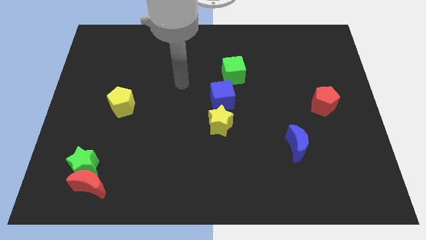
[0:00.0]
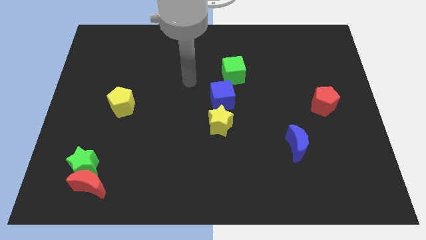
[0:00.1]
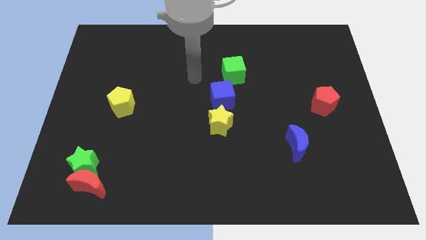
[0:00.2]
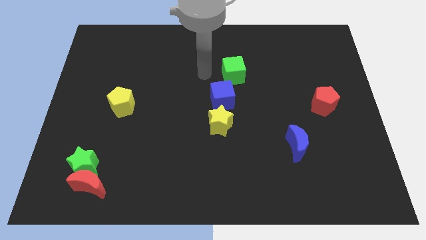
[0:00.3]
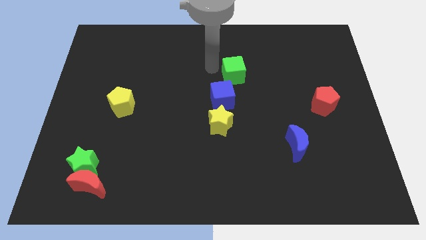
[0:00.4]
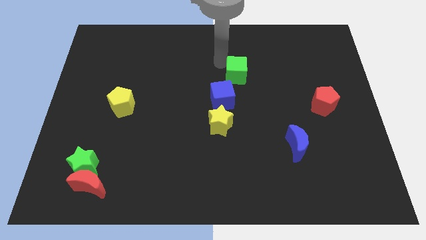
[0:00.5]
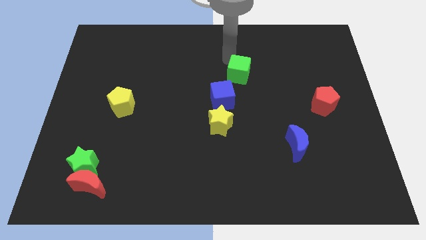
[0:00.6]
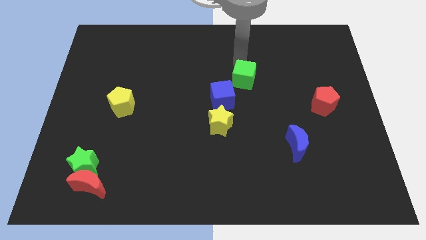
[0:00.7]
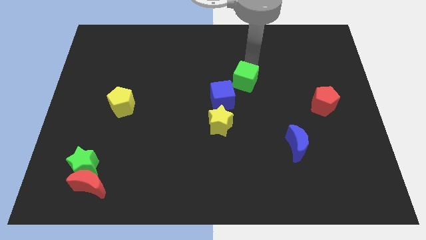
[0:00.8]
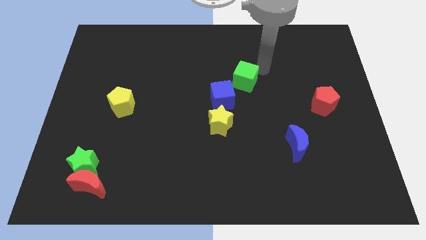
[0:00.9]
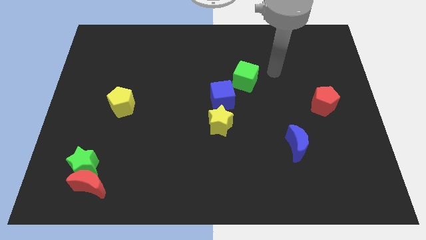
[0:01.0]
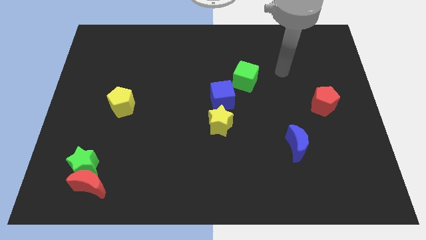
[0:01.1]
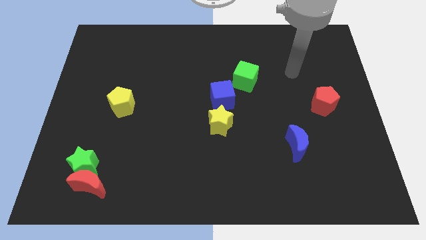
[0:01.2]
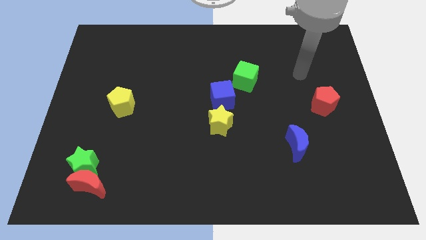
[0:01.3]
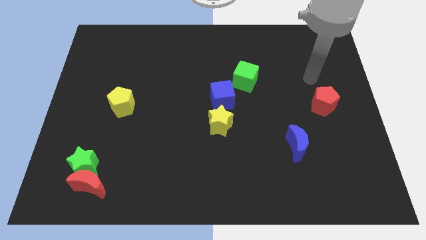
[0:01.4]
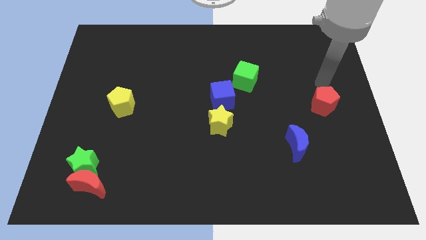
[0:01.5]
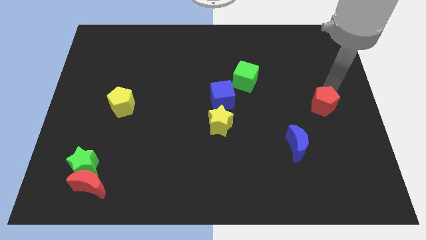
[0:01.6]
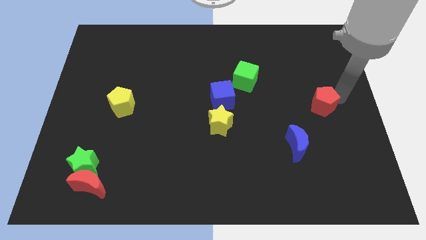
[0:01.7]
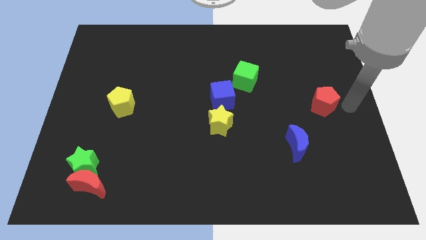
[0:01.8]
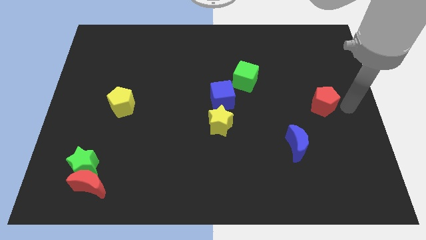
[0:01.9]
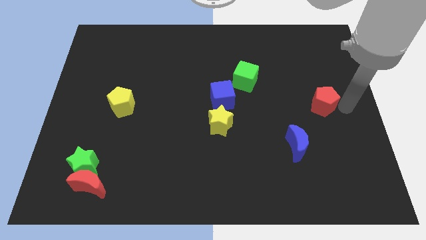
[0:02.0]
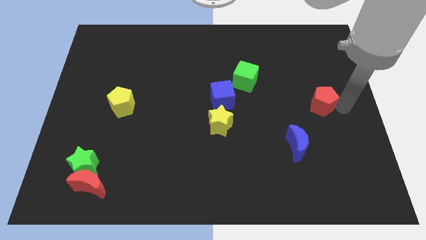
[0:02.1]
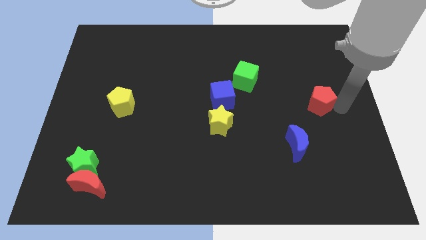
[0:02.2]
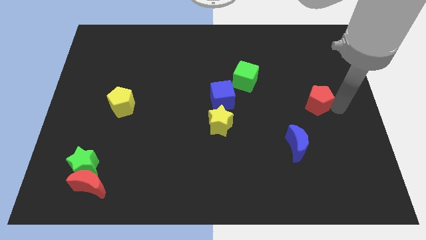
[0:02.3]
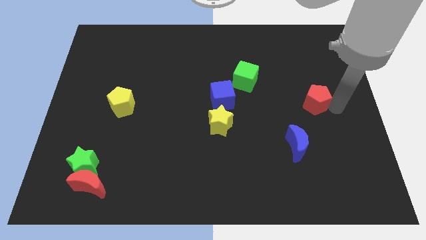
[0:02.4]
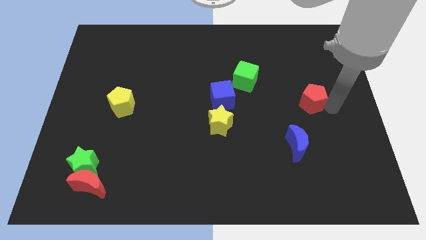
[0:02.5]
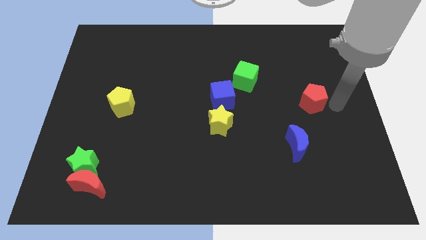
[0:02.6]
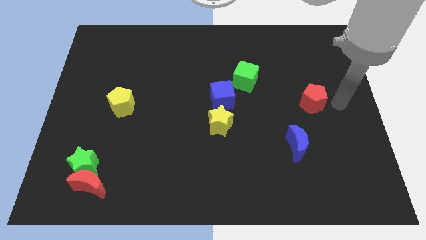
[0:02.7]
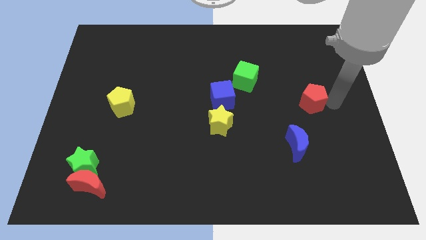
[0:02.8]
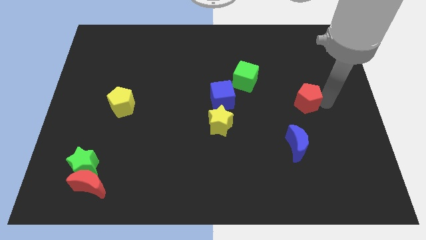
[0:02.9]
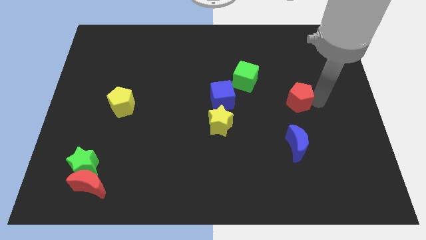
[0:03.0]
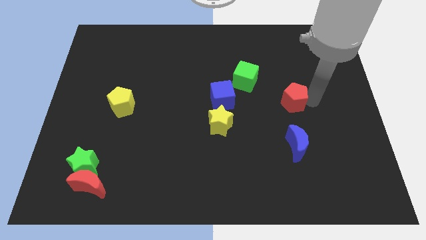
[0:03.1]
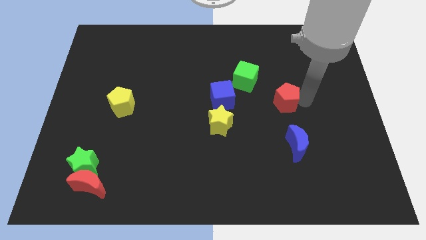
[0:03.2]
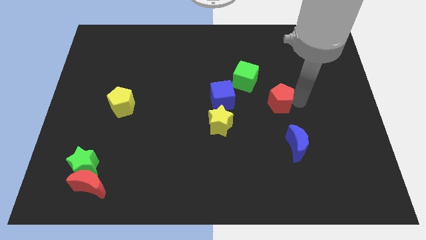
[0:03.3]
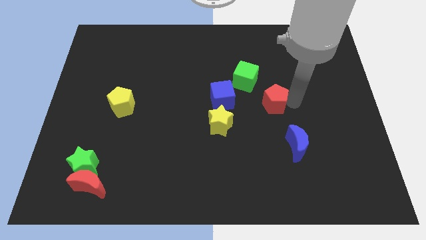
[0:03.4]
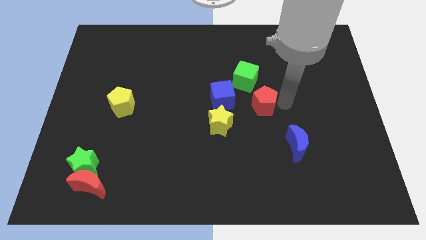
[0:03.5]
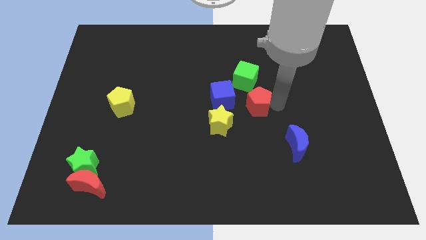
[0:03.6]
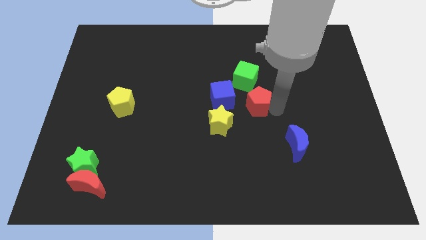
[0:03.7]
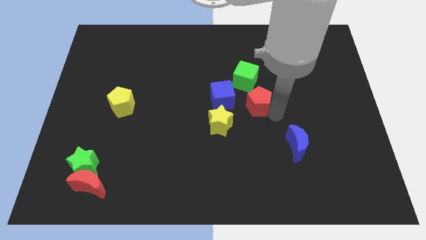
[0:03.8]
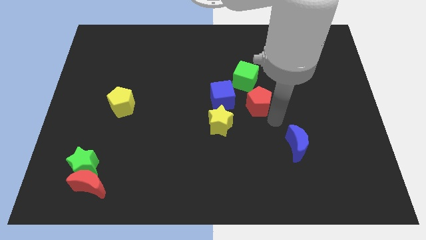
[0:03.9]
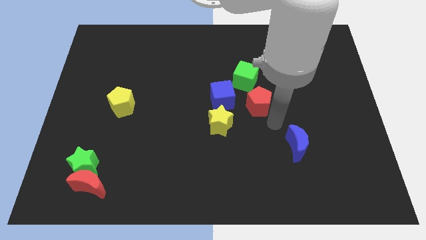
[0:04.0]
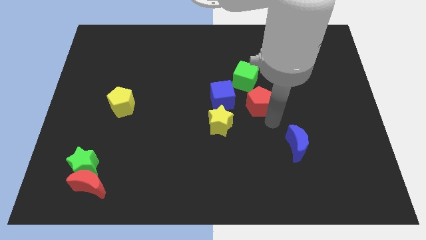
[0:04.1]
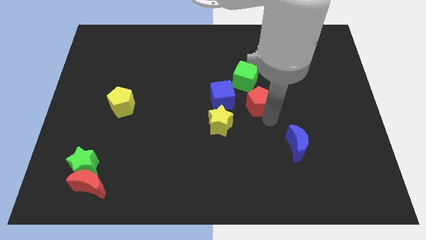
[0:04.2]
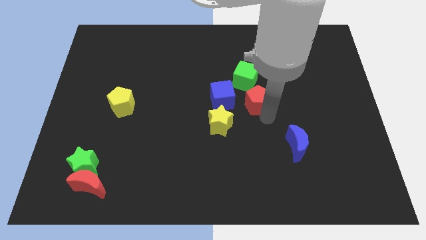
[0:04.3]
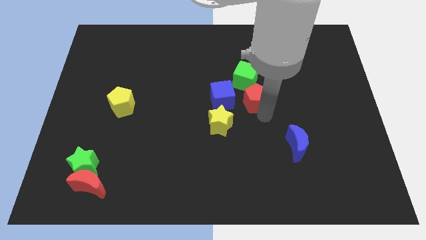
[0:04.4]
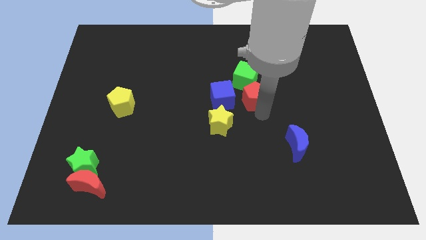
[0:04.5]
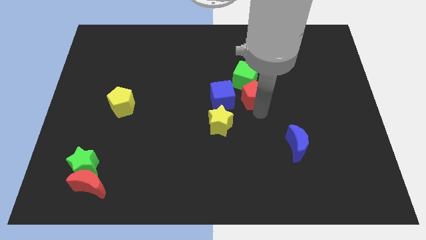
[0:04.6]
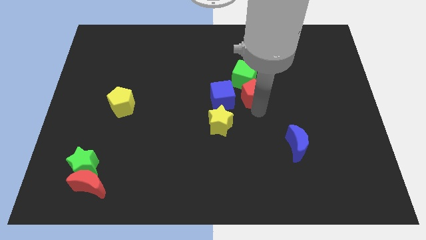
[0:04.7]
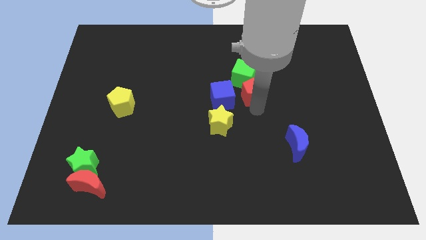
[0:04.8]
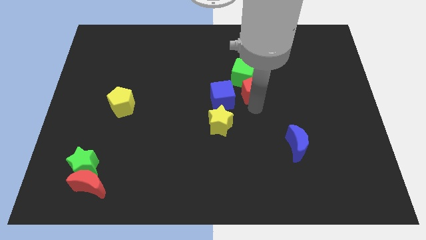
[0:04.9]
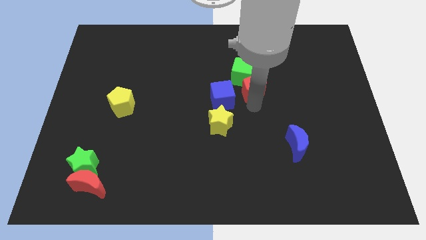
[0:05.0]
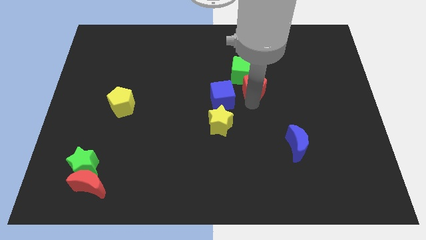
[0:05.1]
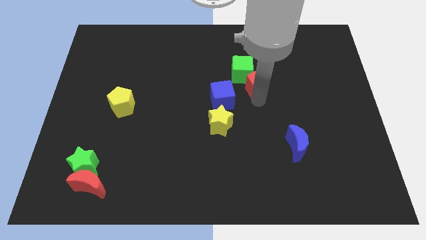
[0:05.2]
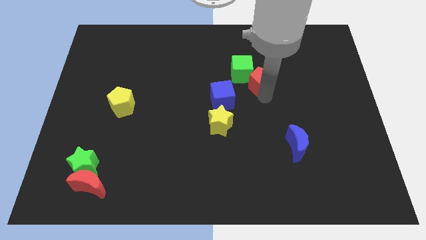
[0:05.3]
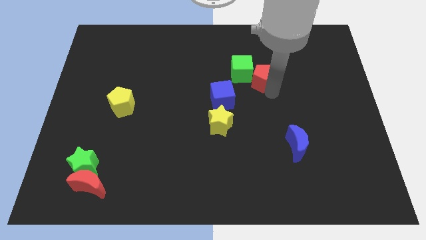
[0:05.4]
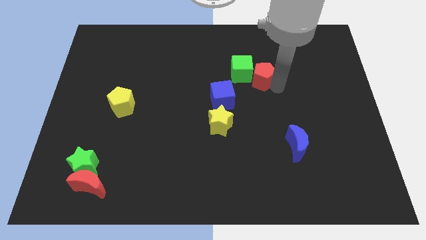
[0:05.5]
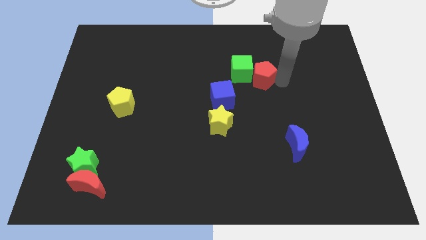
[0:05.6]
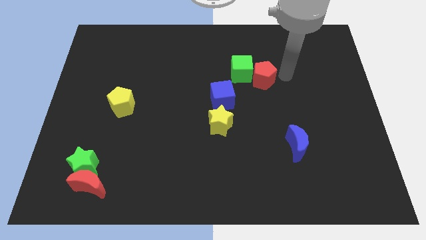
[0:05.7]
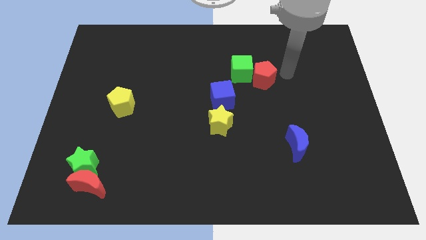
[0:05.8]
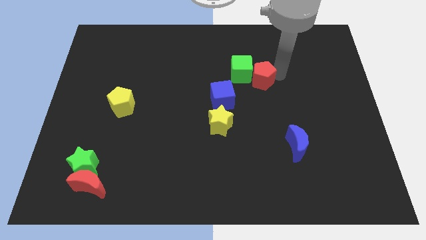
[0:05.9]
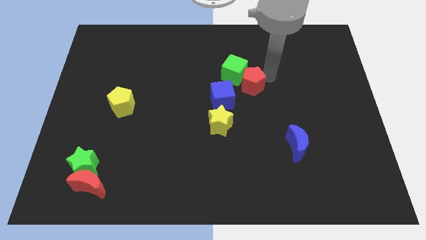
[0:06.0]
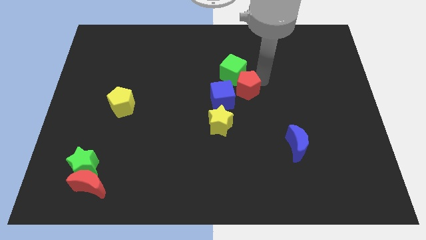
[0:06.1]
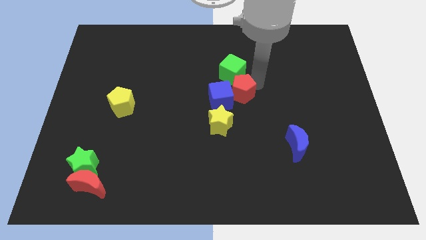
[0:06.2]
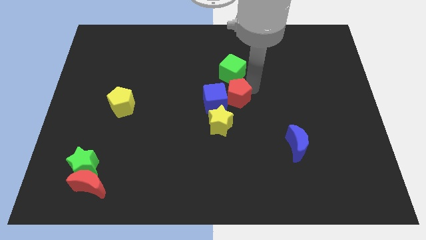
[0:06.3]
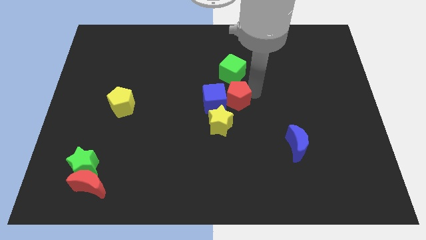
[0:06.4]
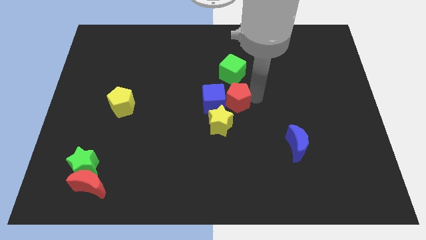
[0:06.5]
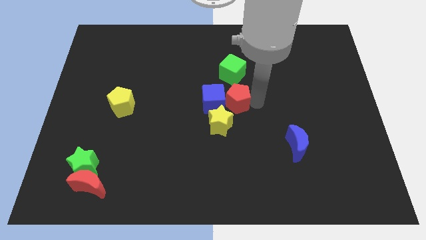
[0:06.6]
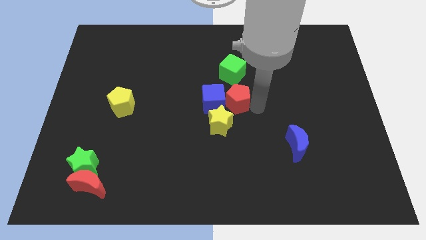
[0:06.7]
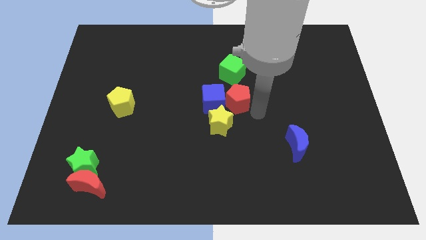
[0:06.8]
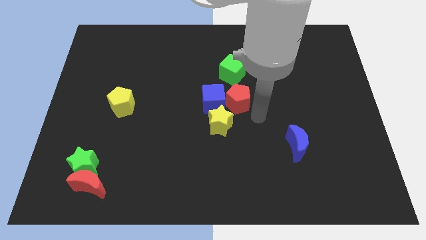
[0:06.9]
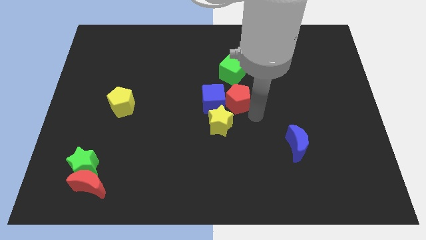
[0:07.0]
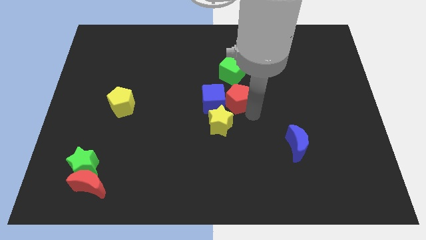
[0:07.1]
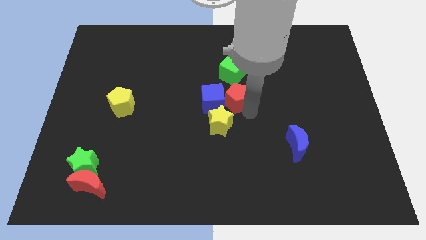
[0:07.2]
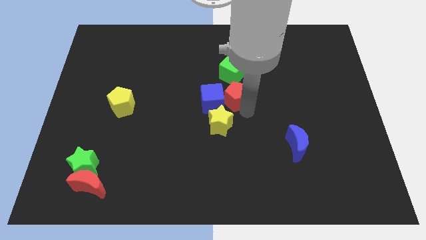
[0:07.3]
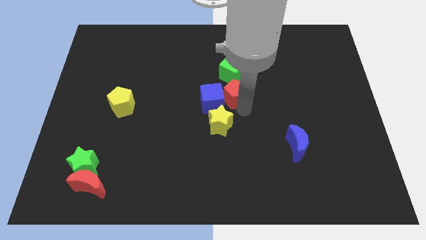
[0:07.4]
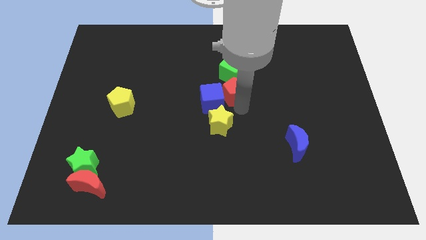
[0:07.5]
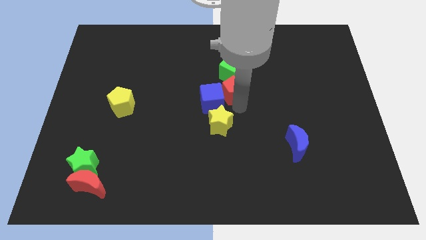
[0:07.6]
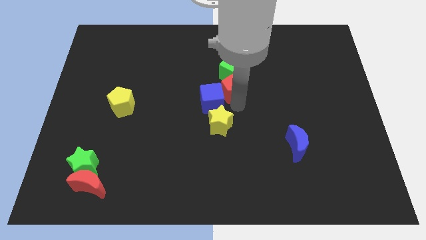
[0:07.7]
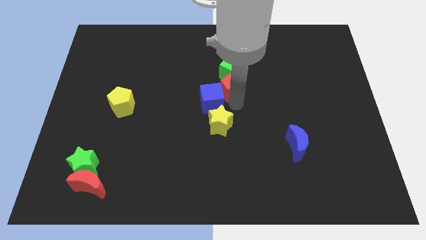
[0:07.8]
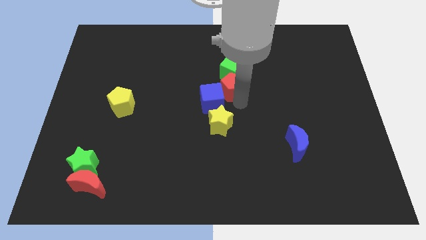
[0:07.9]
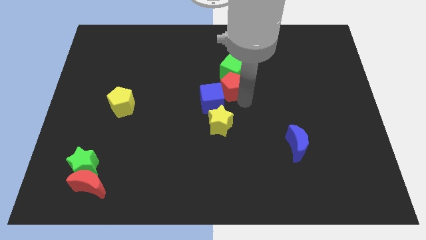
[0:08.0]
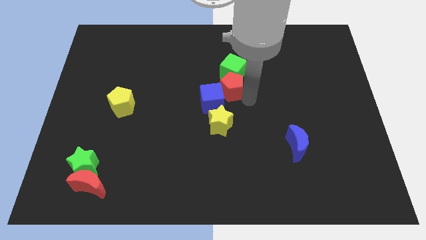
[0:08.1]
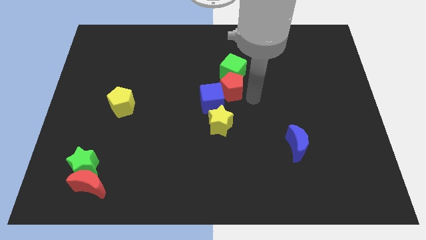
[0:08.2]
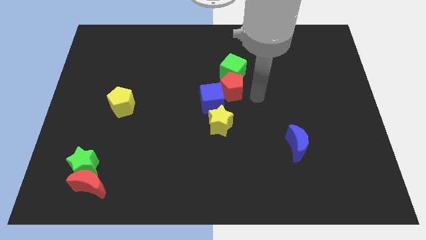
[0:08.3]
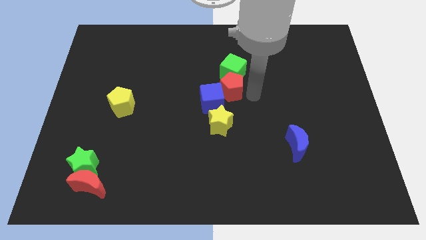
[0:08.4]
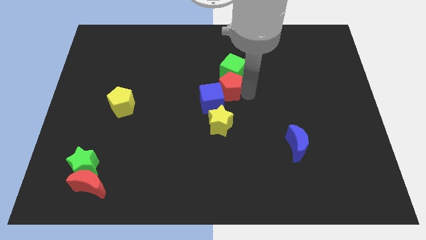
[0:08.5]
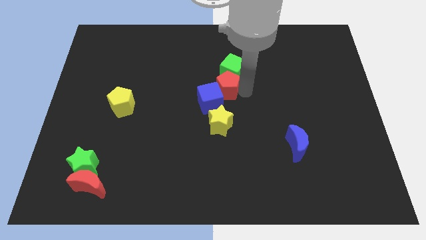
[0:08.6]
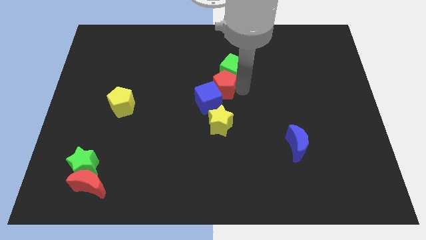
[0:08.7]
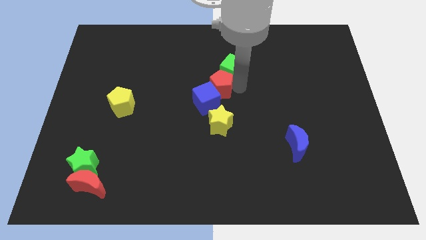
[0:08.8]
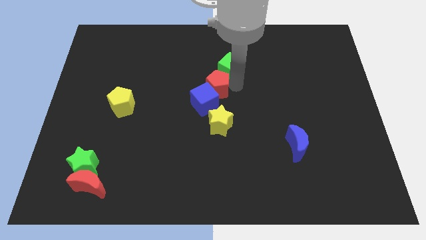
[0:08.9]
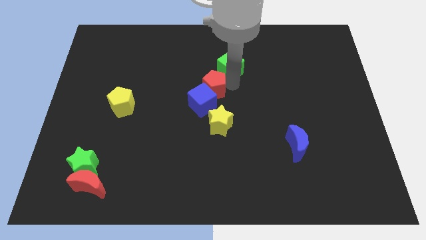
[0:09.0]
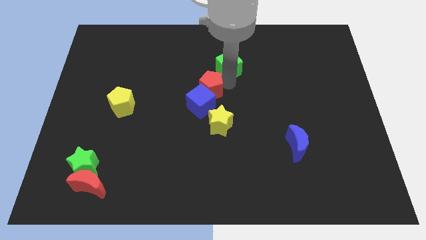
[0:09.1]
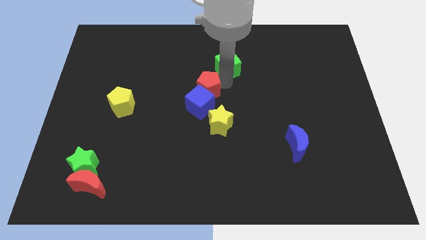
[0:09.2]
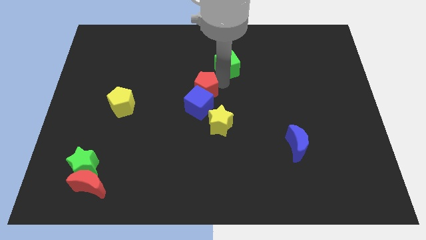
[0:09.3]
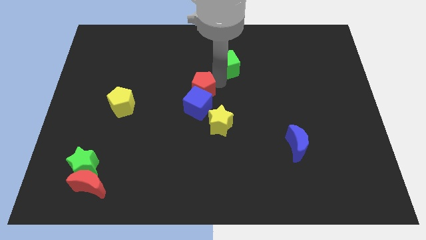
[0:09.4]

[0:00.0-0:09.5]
slide the red pentagon to the top left of the blue cube
